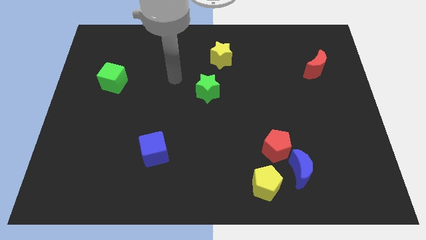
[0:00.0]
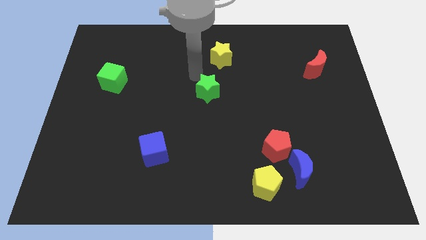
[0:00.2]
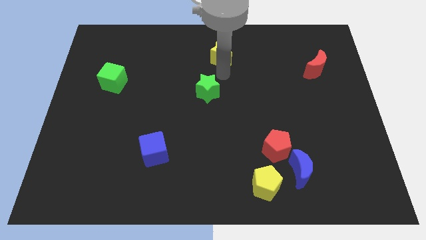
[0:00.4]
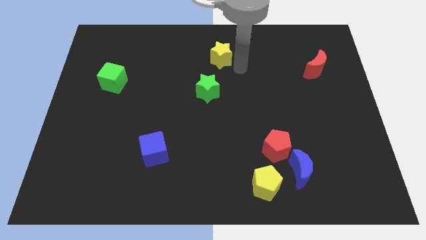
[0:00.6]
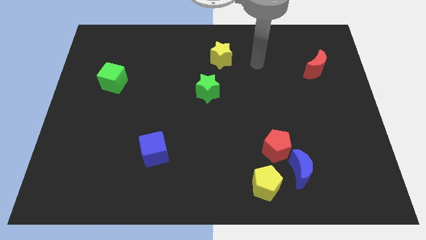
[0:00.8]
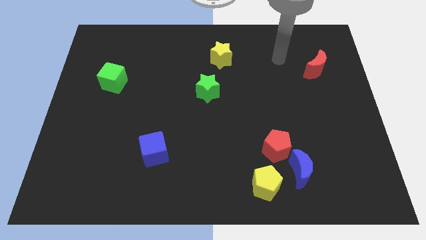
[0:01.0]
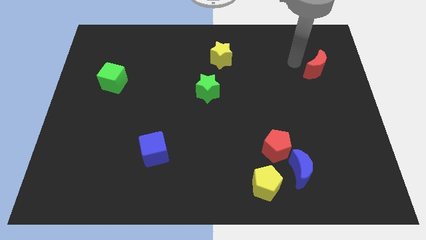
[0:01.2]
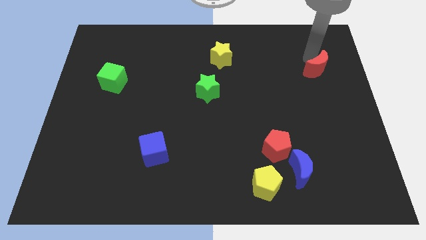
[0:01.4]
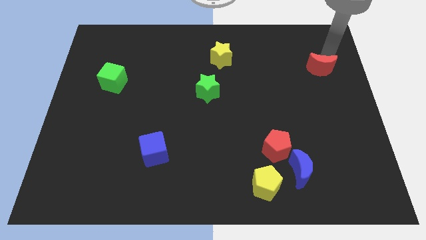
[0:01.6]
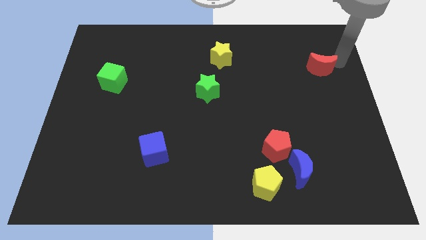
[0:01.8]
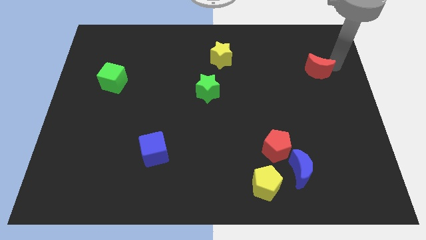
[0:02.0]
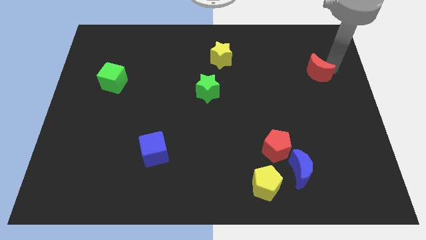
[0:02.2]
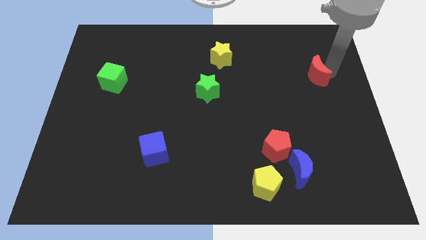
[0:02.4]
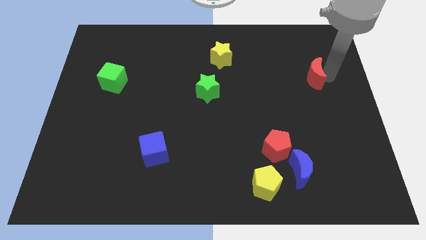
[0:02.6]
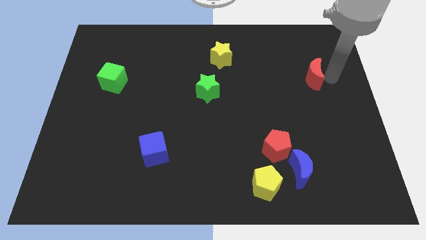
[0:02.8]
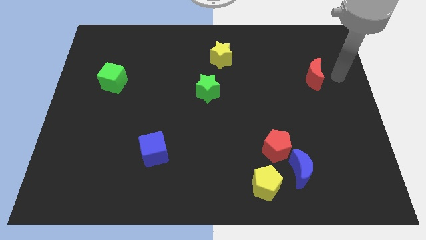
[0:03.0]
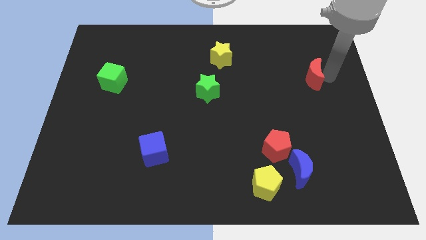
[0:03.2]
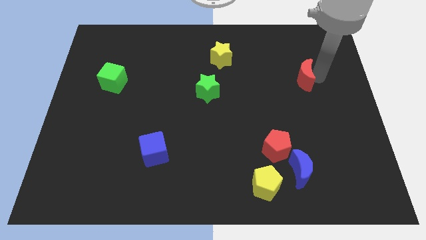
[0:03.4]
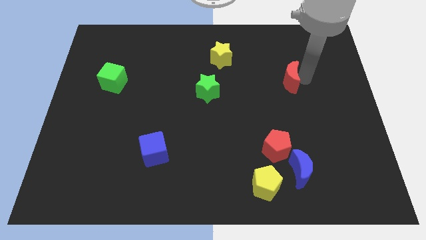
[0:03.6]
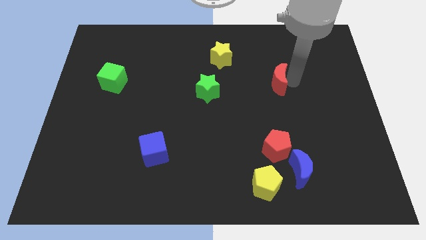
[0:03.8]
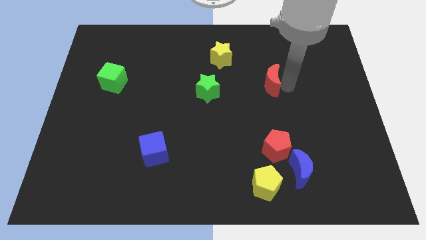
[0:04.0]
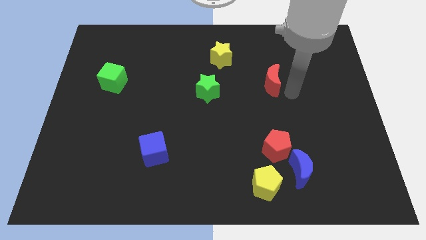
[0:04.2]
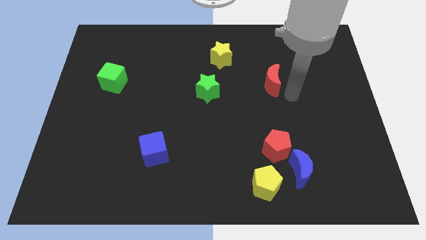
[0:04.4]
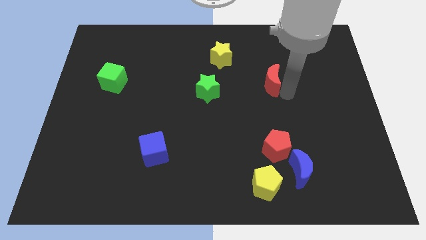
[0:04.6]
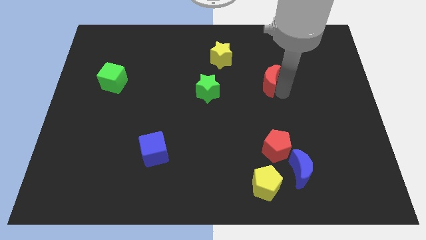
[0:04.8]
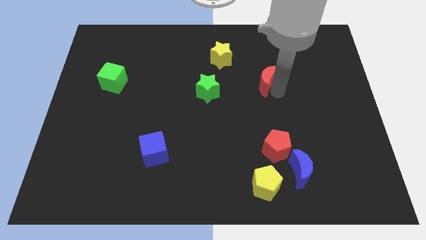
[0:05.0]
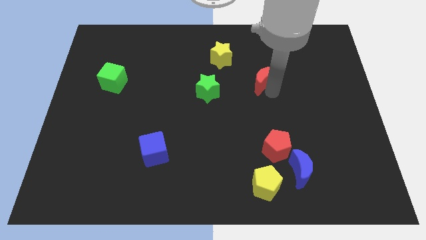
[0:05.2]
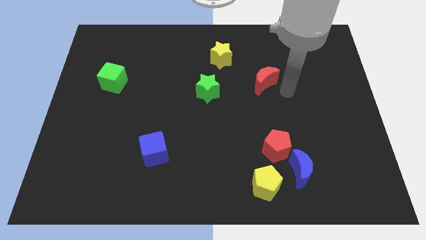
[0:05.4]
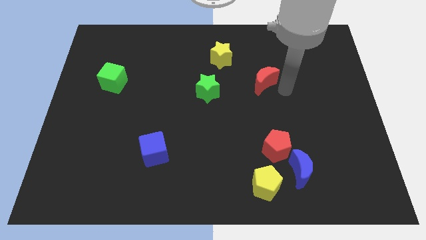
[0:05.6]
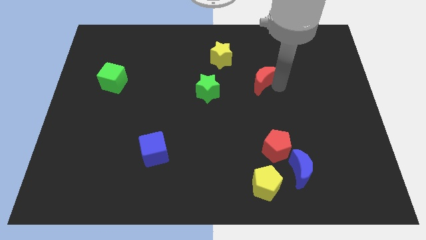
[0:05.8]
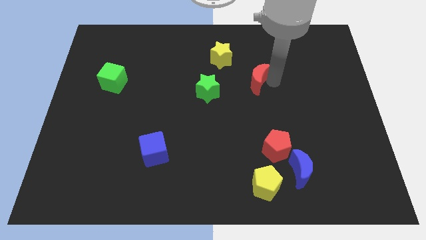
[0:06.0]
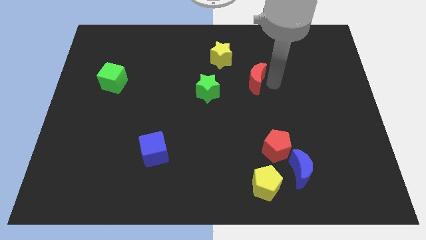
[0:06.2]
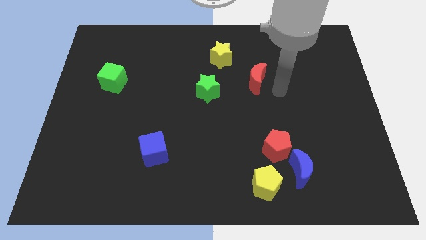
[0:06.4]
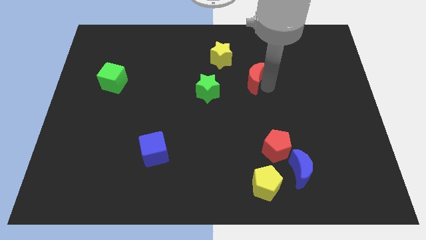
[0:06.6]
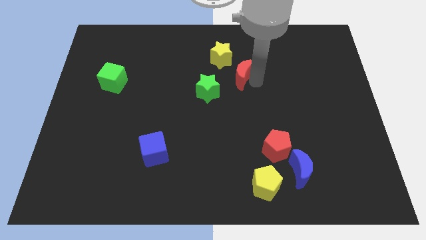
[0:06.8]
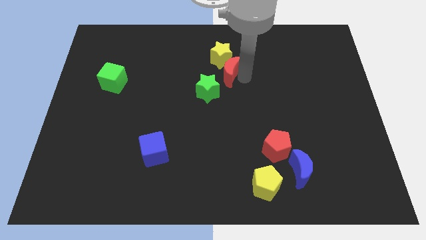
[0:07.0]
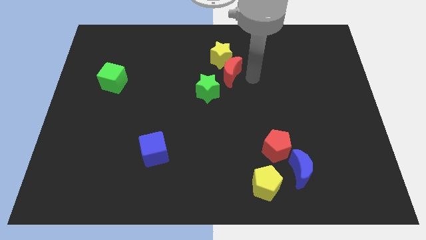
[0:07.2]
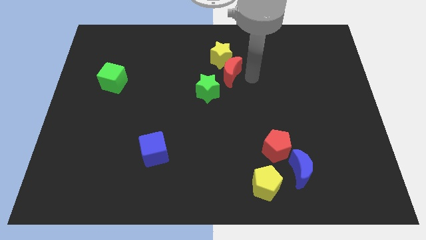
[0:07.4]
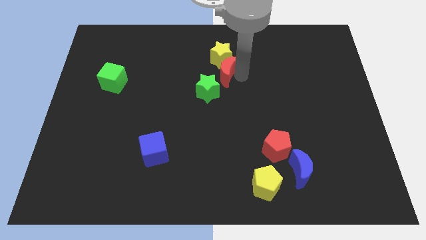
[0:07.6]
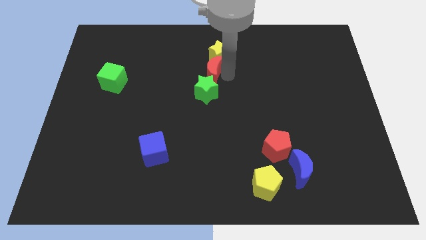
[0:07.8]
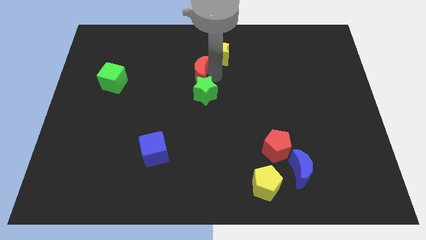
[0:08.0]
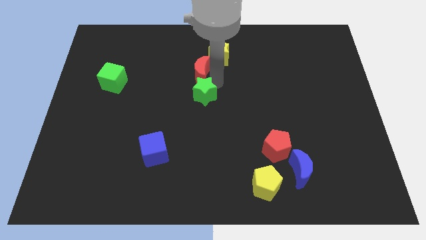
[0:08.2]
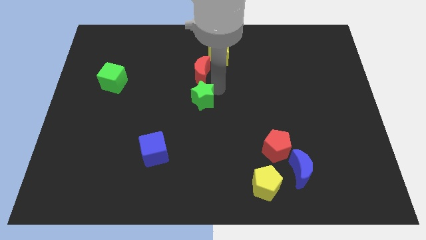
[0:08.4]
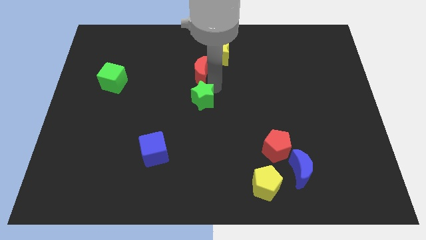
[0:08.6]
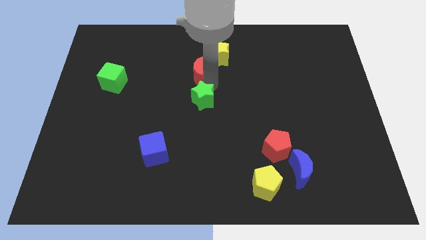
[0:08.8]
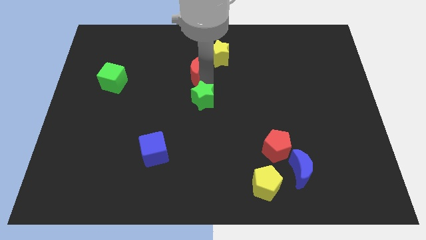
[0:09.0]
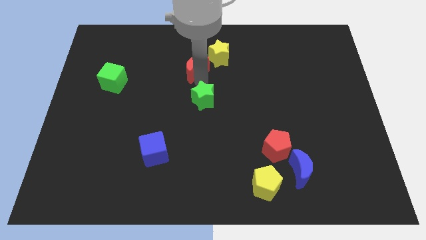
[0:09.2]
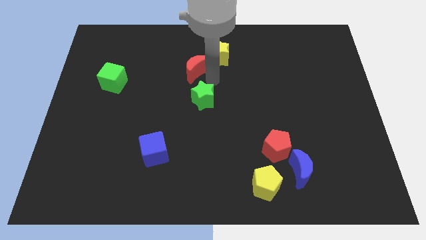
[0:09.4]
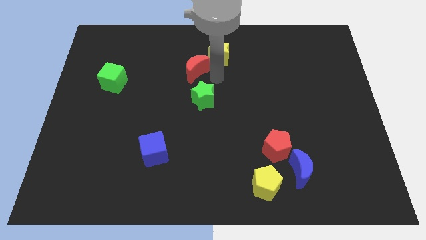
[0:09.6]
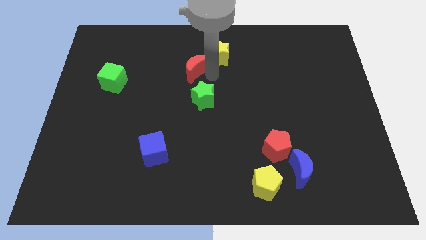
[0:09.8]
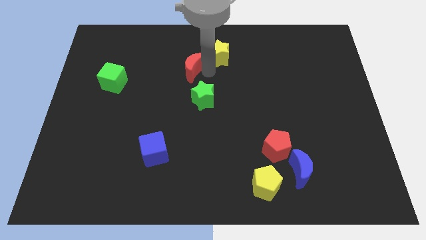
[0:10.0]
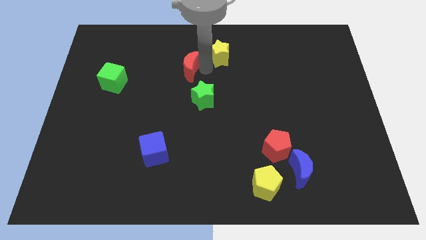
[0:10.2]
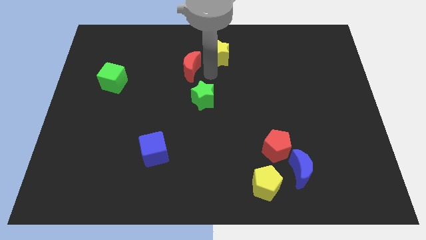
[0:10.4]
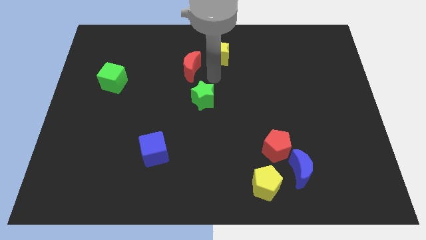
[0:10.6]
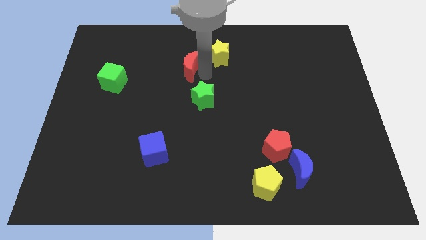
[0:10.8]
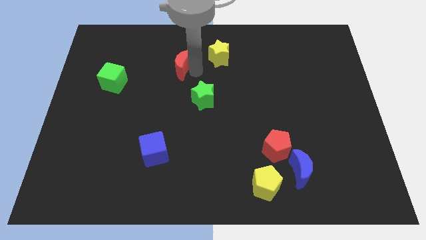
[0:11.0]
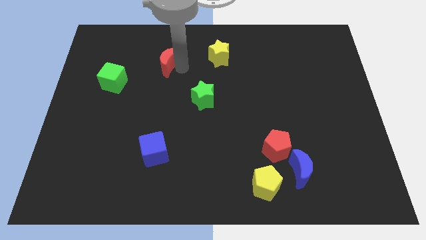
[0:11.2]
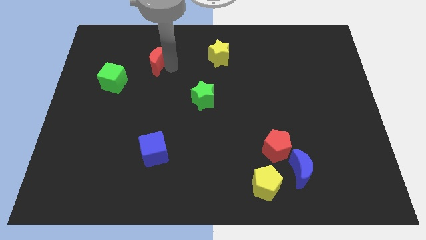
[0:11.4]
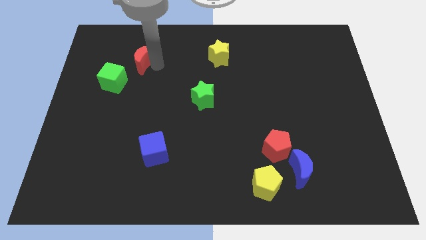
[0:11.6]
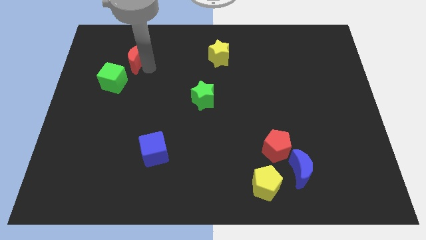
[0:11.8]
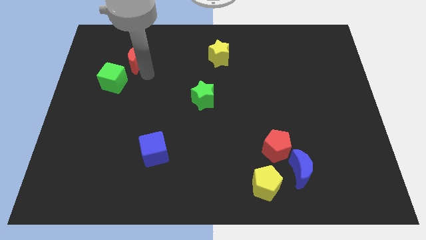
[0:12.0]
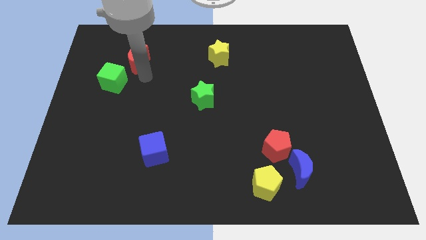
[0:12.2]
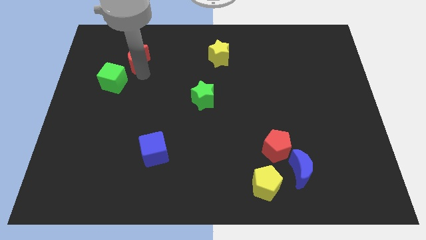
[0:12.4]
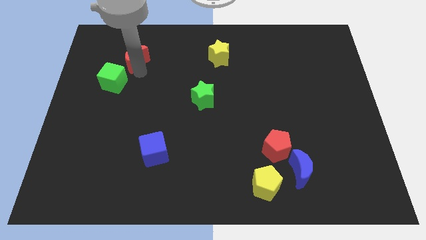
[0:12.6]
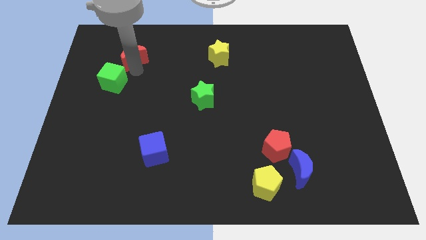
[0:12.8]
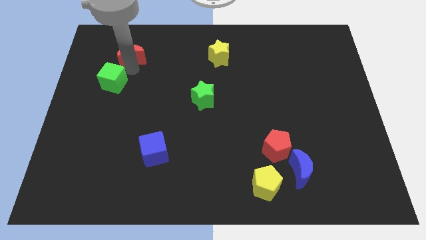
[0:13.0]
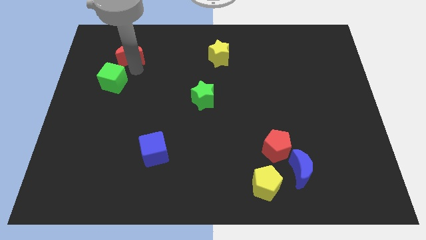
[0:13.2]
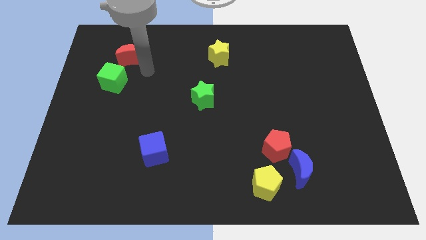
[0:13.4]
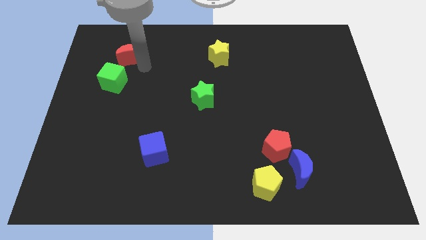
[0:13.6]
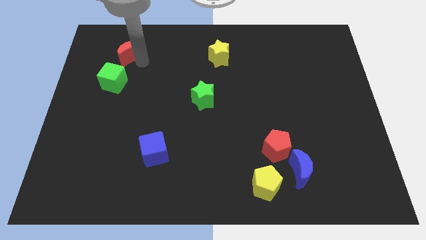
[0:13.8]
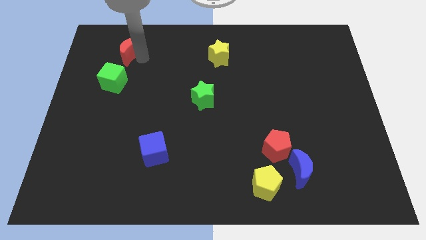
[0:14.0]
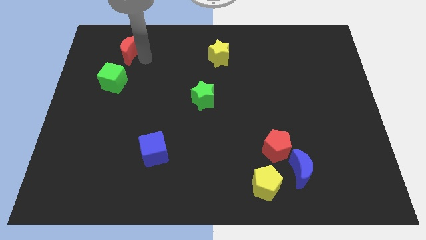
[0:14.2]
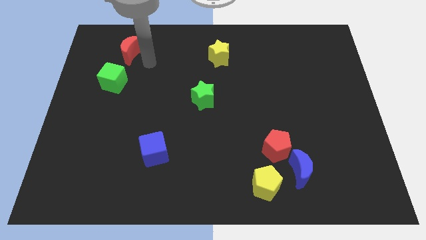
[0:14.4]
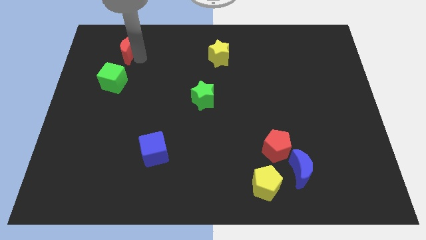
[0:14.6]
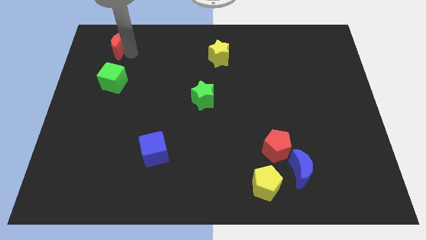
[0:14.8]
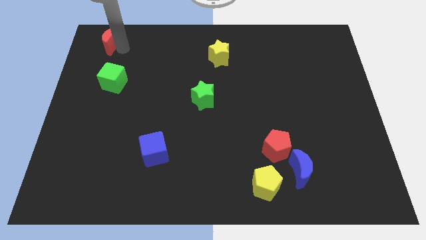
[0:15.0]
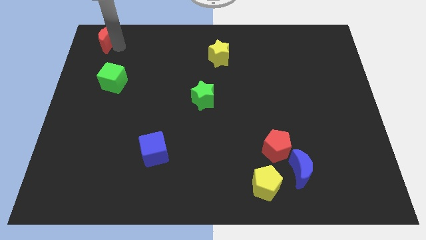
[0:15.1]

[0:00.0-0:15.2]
move the red moon to the top left of the board
